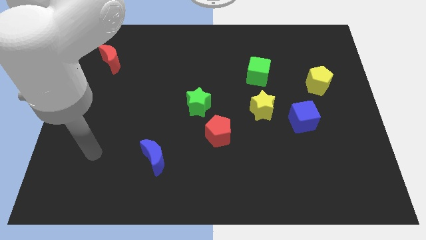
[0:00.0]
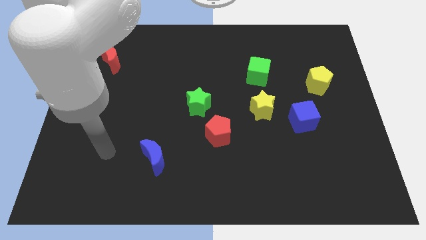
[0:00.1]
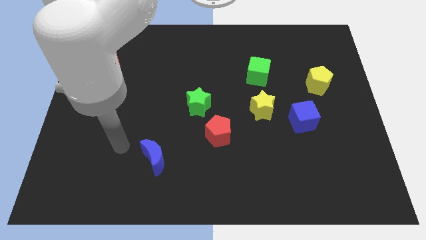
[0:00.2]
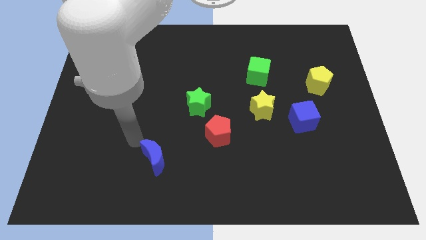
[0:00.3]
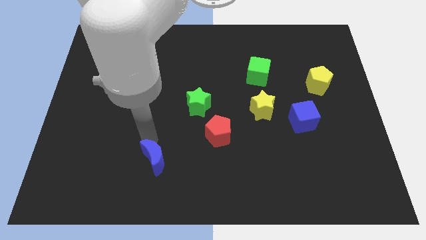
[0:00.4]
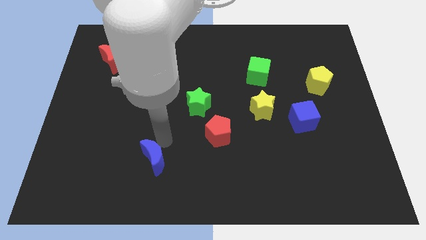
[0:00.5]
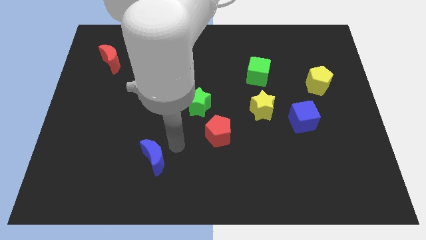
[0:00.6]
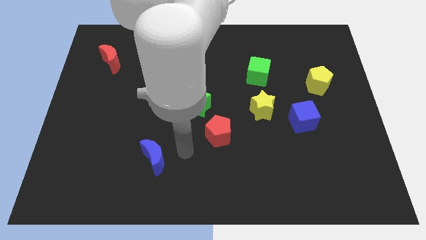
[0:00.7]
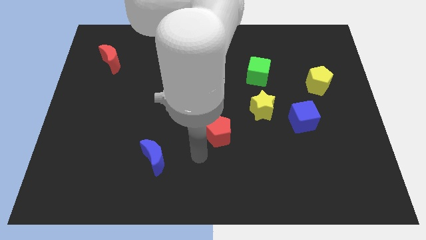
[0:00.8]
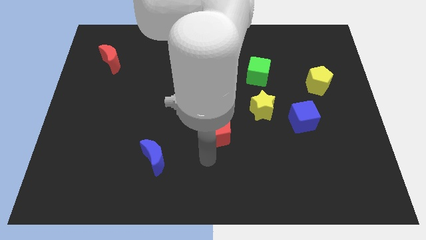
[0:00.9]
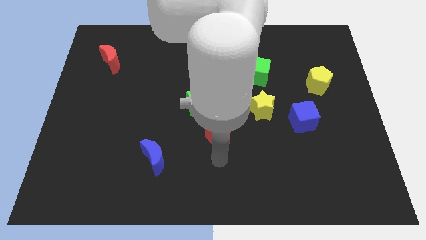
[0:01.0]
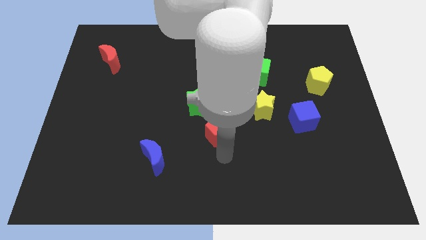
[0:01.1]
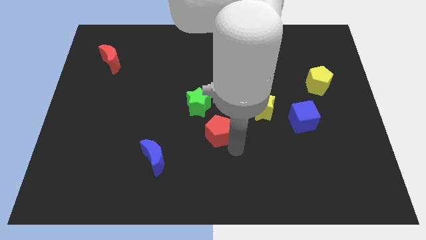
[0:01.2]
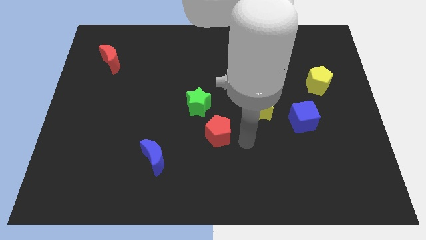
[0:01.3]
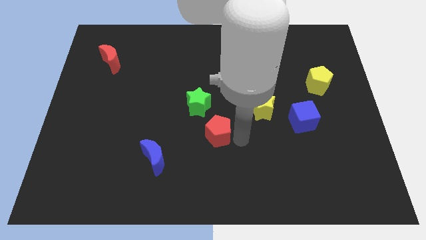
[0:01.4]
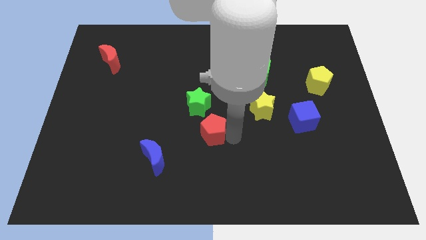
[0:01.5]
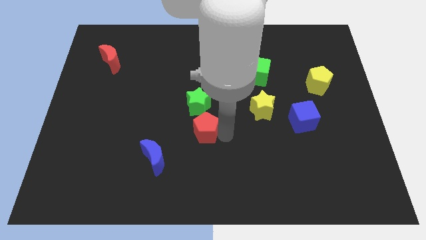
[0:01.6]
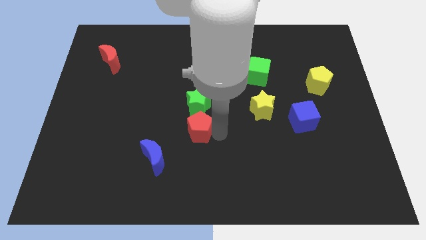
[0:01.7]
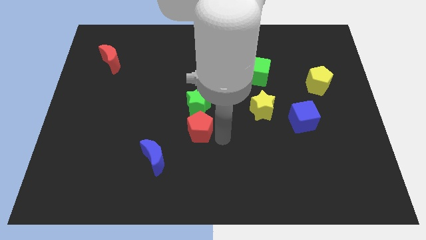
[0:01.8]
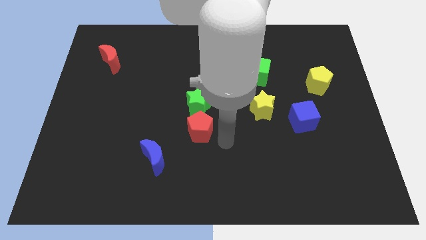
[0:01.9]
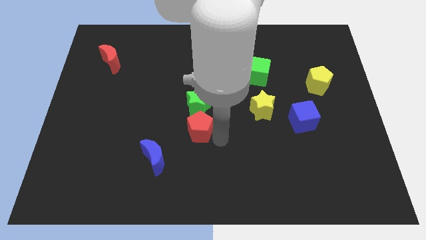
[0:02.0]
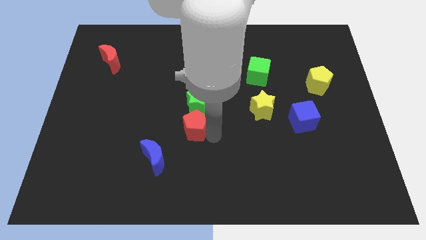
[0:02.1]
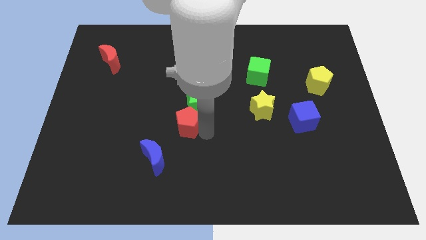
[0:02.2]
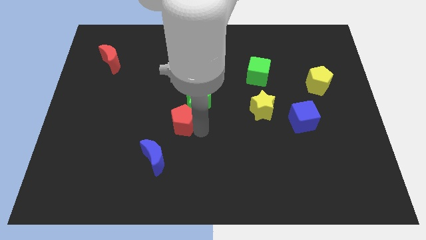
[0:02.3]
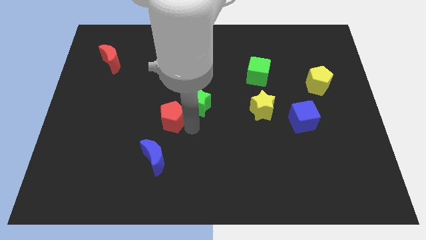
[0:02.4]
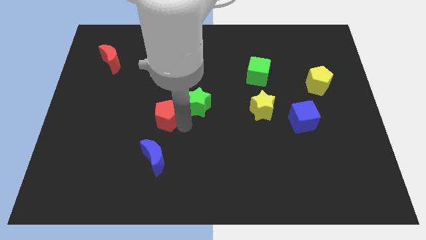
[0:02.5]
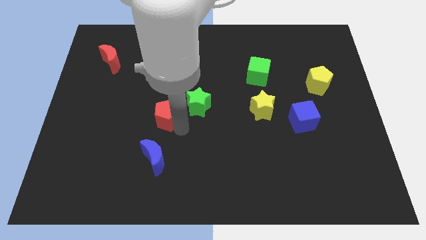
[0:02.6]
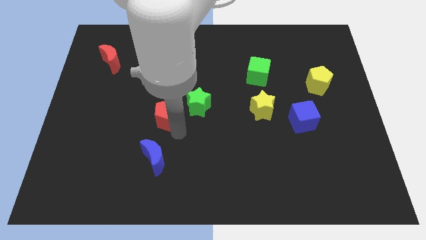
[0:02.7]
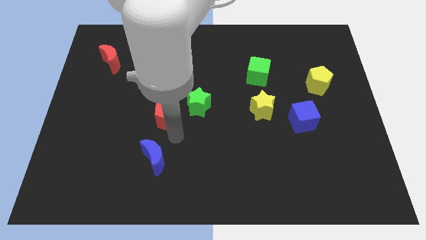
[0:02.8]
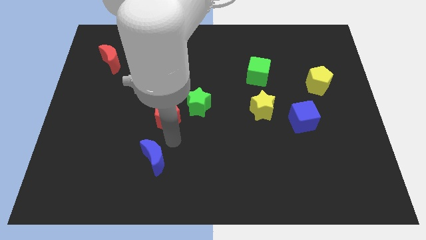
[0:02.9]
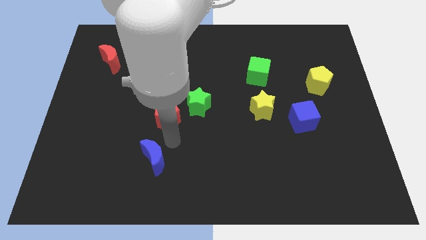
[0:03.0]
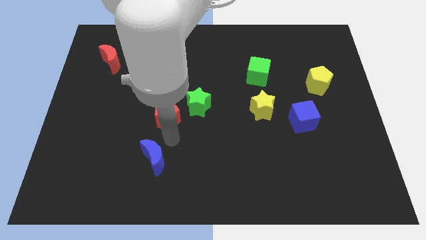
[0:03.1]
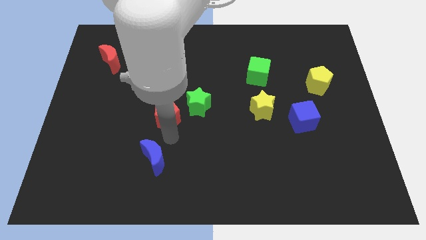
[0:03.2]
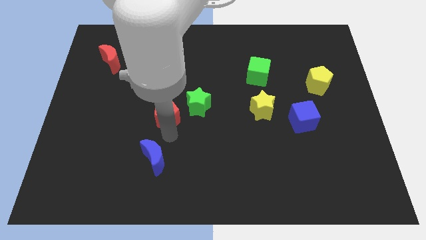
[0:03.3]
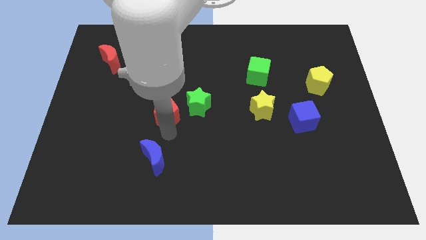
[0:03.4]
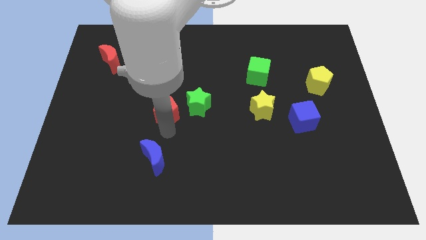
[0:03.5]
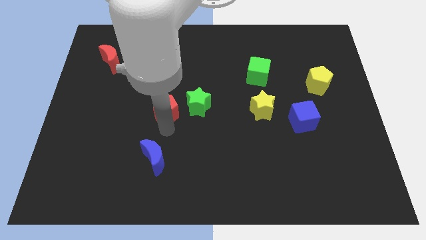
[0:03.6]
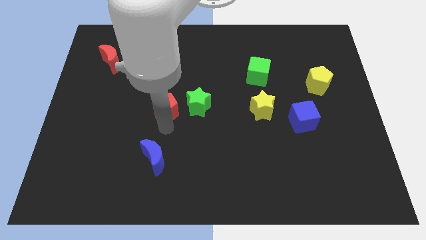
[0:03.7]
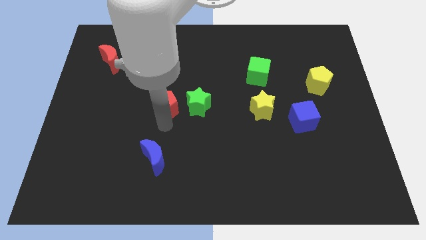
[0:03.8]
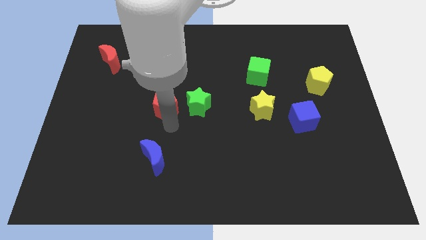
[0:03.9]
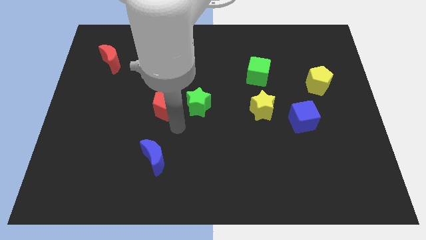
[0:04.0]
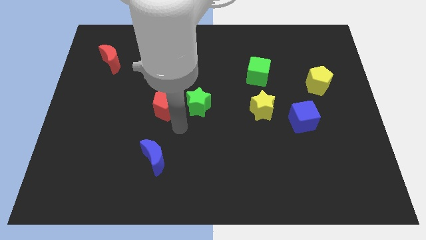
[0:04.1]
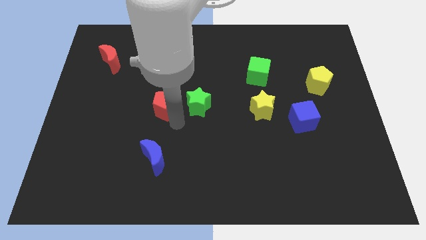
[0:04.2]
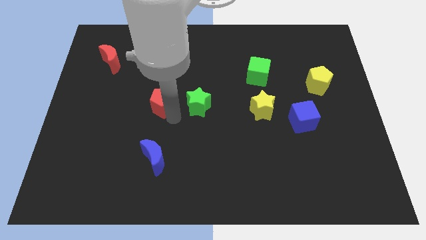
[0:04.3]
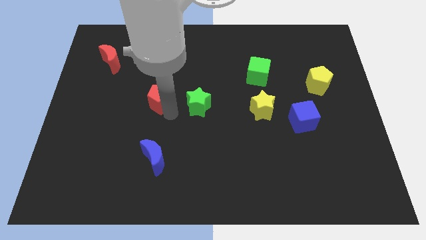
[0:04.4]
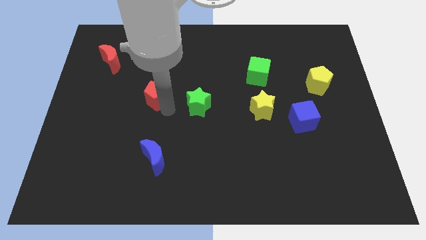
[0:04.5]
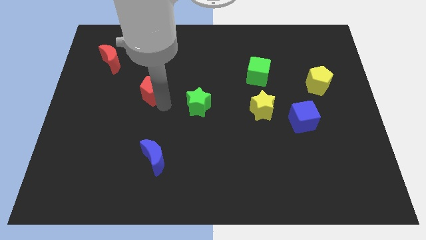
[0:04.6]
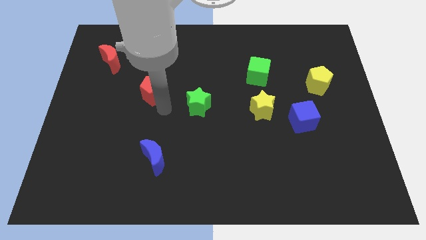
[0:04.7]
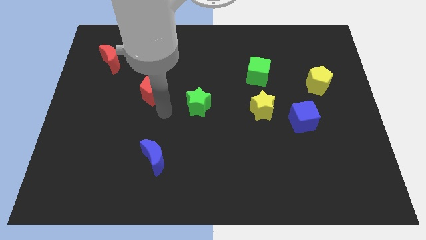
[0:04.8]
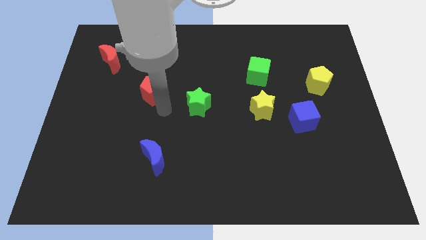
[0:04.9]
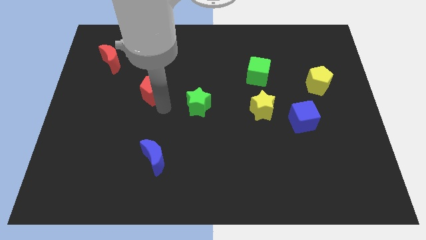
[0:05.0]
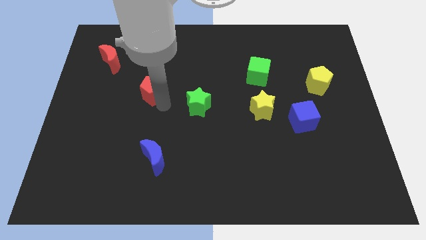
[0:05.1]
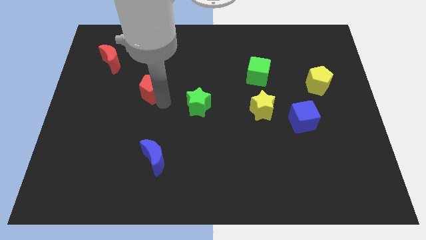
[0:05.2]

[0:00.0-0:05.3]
move the red pentagon diagonally upwards and left

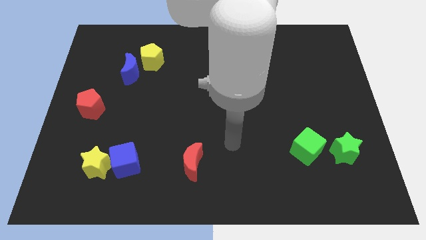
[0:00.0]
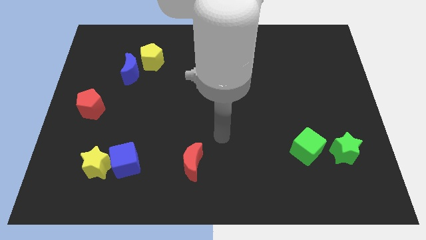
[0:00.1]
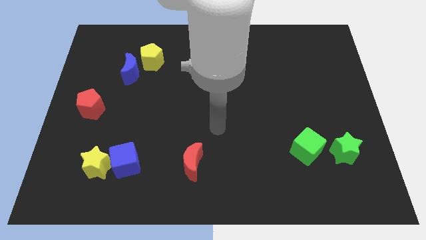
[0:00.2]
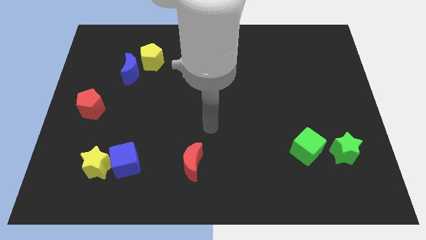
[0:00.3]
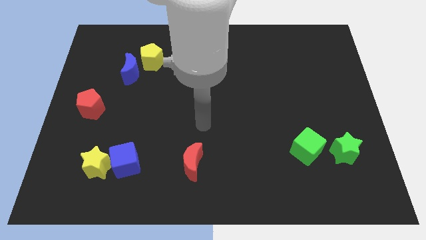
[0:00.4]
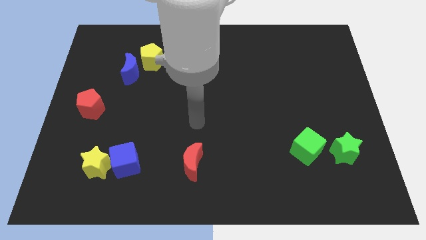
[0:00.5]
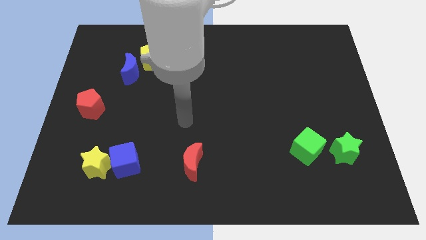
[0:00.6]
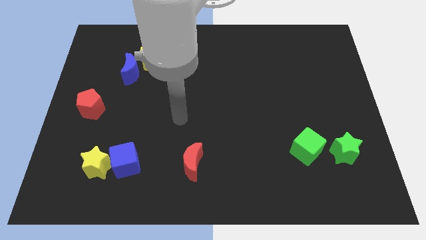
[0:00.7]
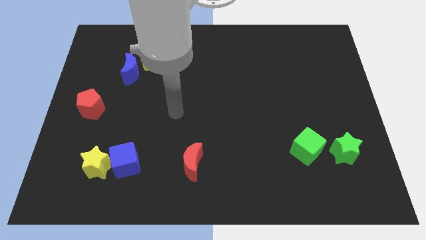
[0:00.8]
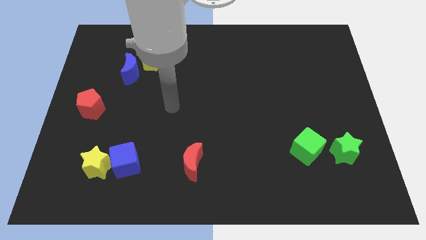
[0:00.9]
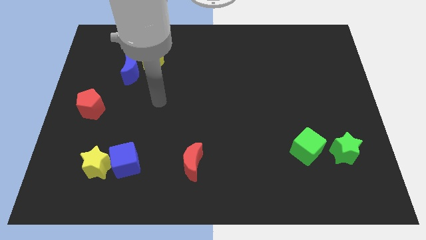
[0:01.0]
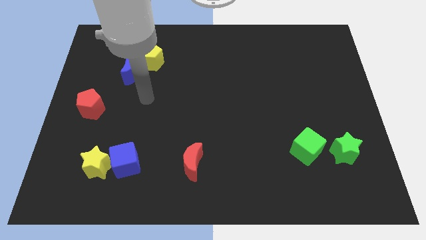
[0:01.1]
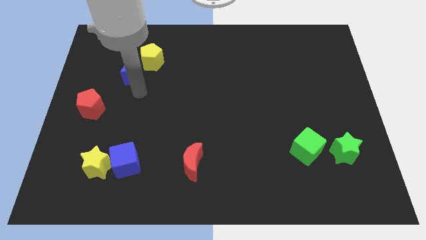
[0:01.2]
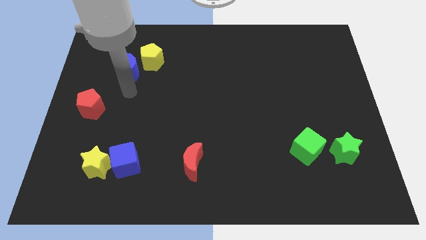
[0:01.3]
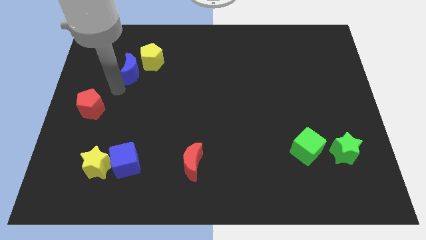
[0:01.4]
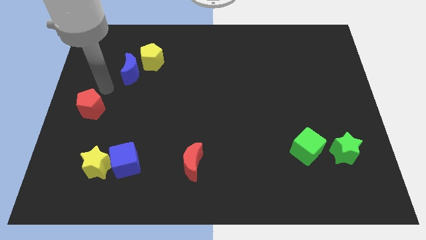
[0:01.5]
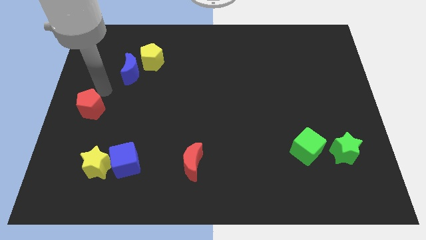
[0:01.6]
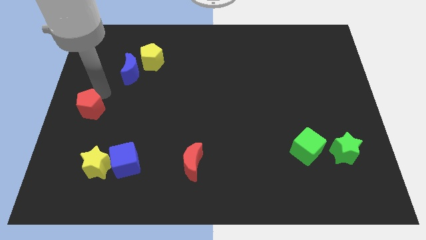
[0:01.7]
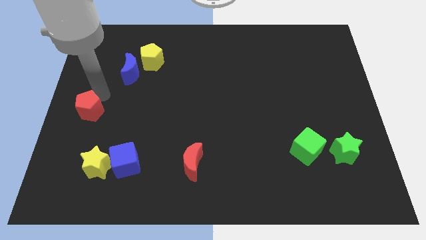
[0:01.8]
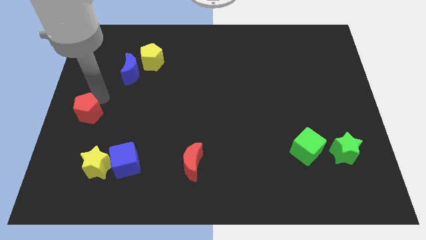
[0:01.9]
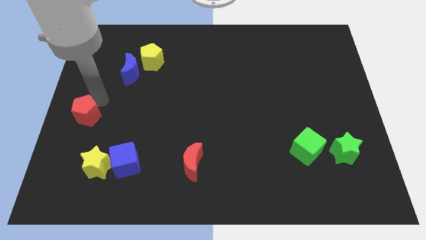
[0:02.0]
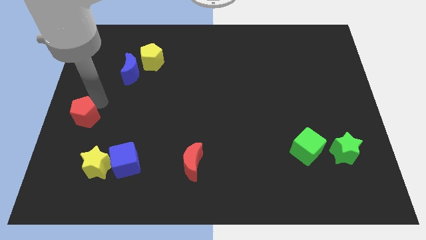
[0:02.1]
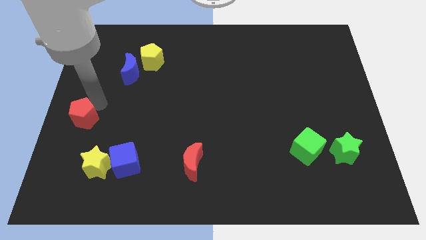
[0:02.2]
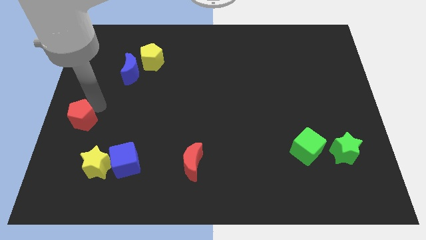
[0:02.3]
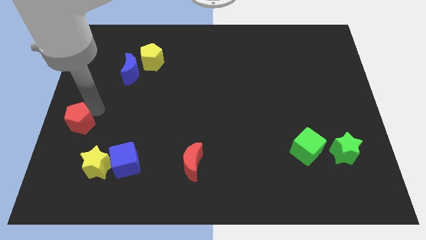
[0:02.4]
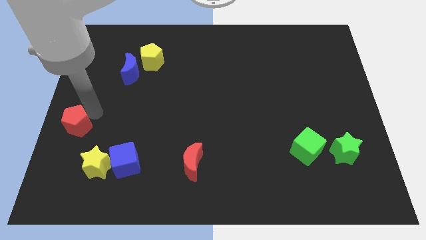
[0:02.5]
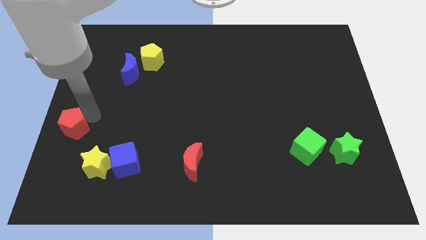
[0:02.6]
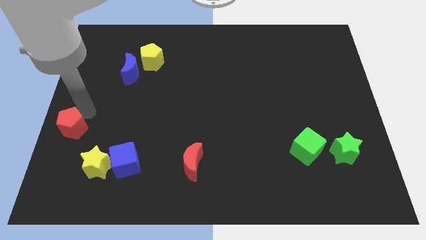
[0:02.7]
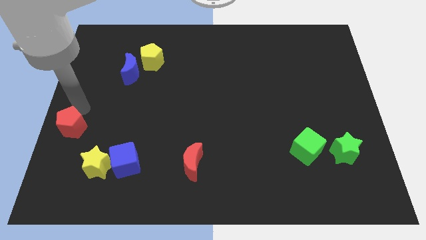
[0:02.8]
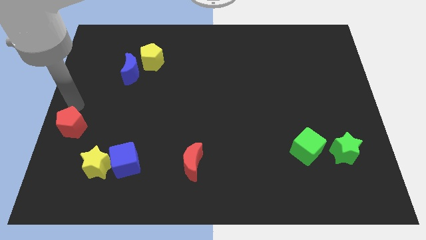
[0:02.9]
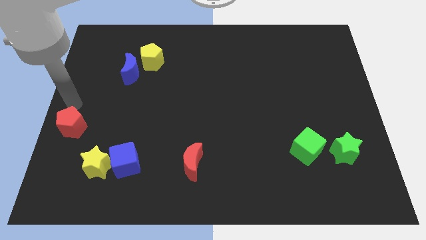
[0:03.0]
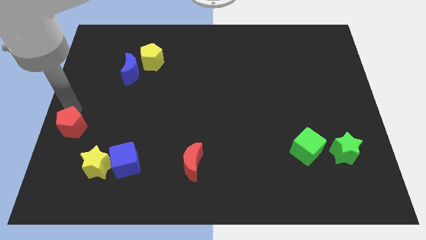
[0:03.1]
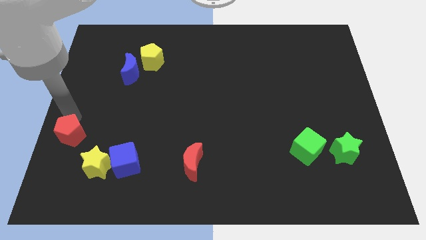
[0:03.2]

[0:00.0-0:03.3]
slightly push the red pentagon down
